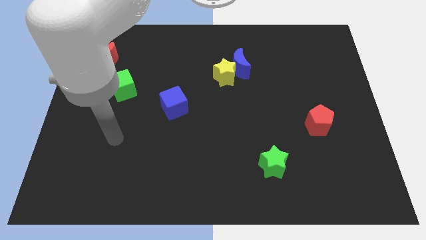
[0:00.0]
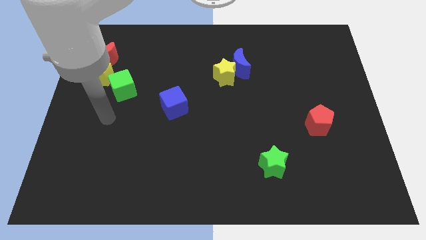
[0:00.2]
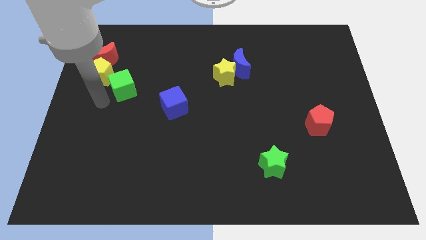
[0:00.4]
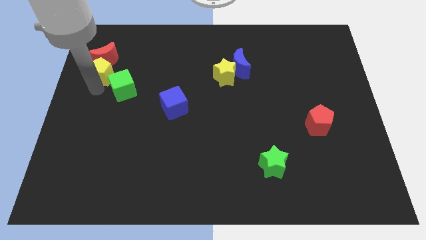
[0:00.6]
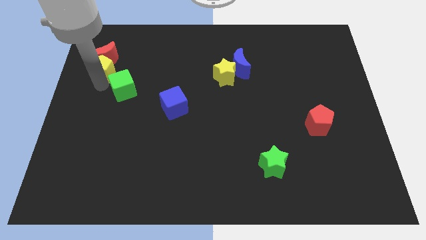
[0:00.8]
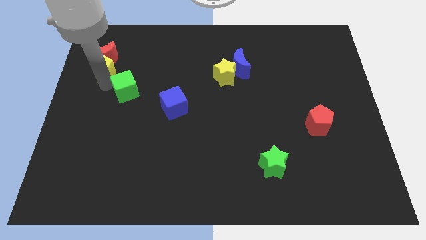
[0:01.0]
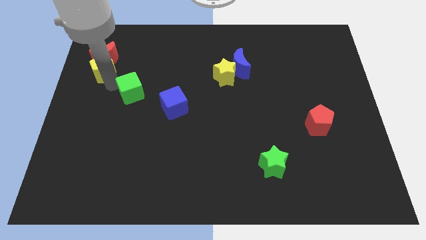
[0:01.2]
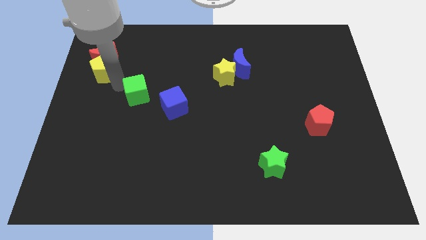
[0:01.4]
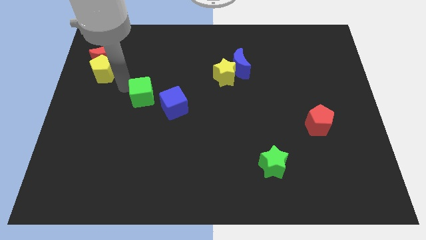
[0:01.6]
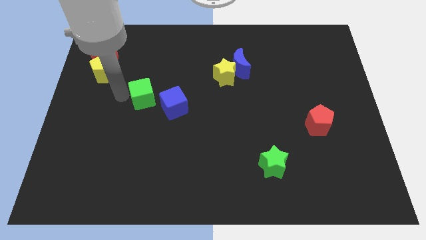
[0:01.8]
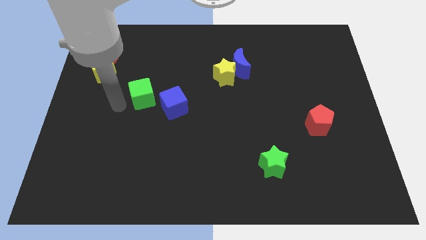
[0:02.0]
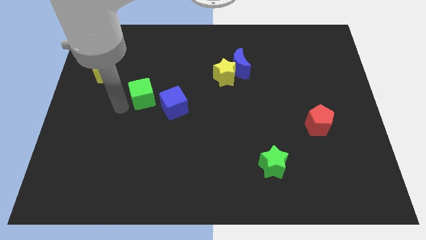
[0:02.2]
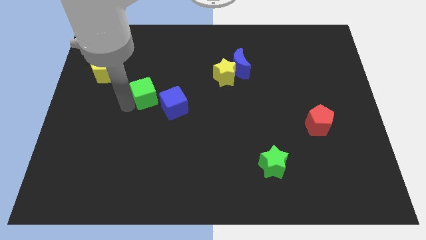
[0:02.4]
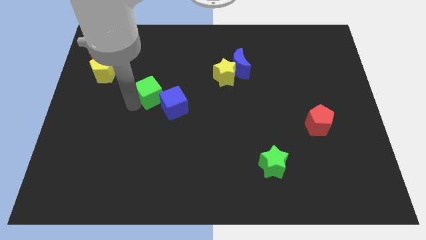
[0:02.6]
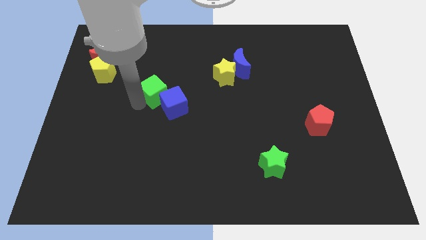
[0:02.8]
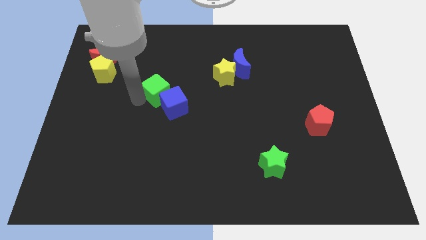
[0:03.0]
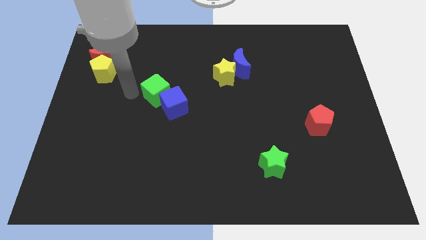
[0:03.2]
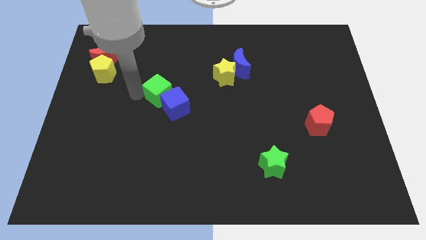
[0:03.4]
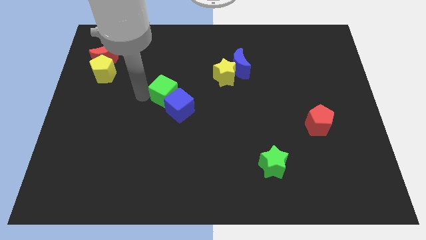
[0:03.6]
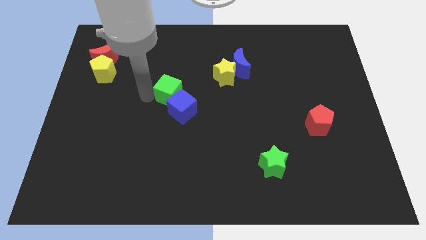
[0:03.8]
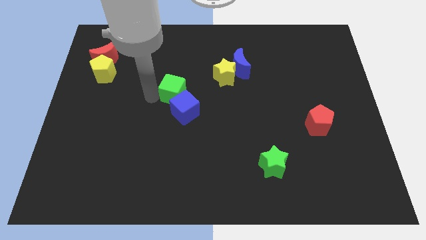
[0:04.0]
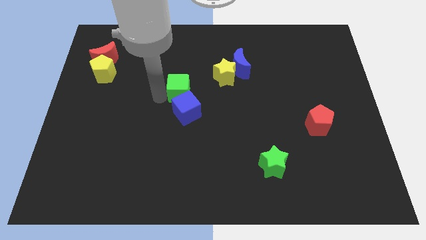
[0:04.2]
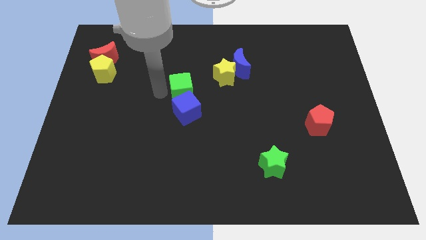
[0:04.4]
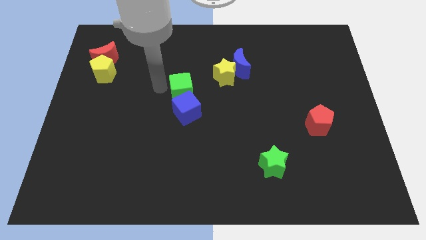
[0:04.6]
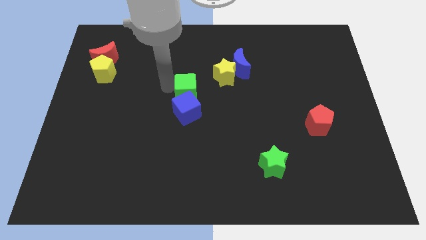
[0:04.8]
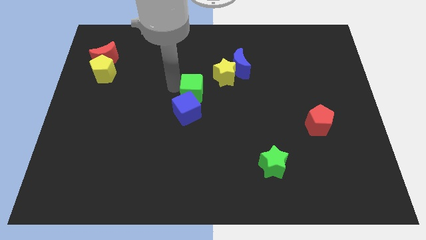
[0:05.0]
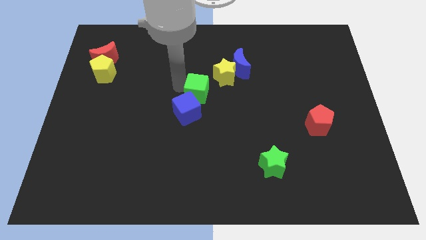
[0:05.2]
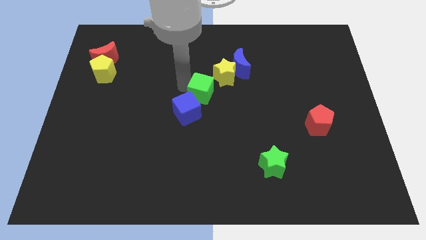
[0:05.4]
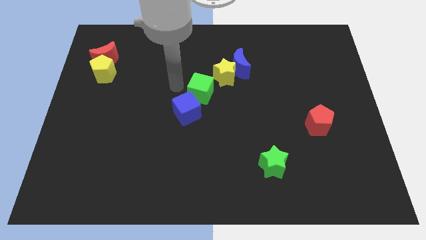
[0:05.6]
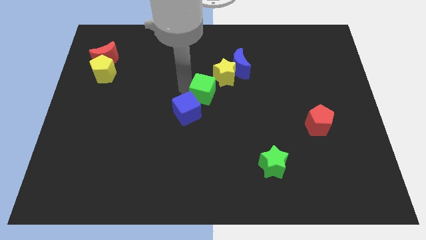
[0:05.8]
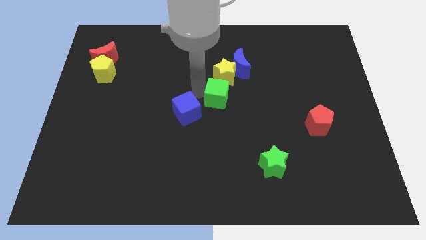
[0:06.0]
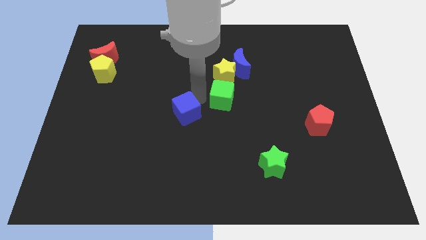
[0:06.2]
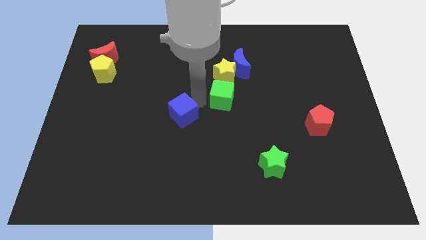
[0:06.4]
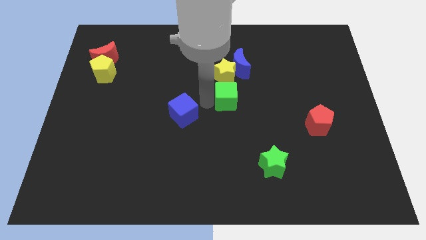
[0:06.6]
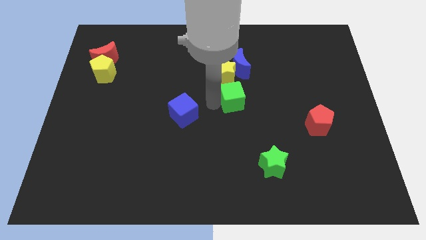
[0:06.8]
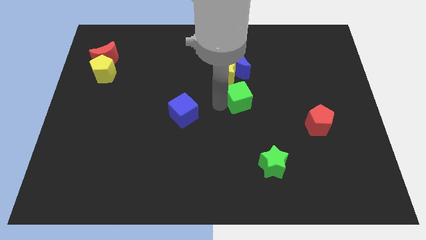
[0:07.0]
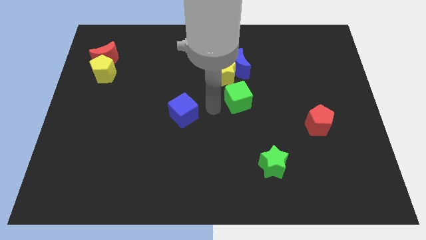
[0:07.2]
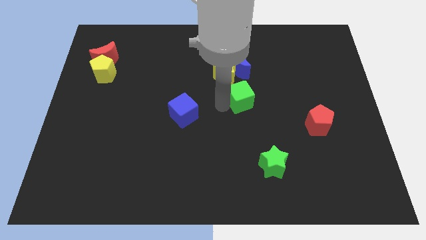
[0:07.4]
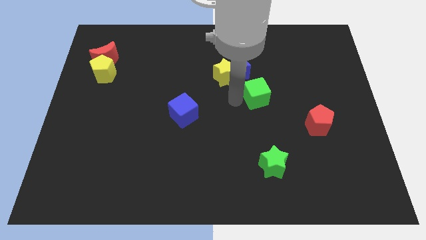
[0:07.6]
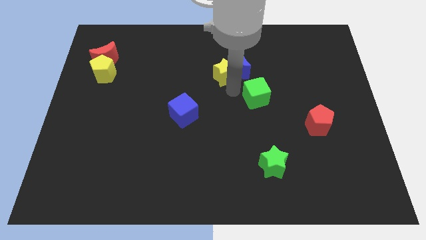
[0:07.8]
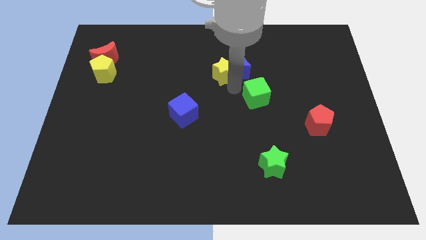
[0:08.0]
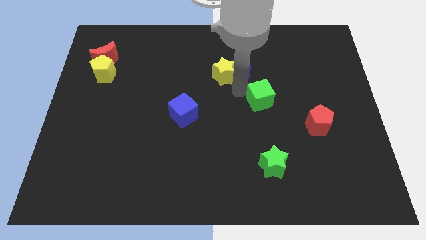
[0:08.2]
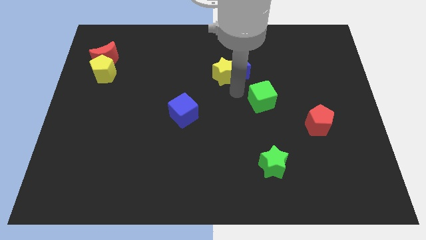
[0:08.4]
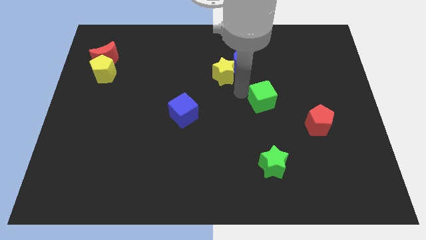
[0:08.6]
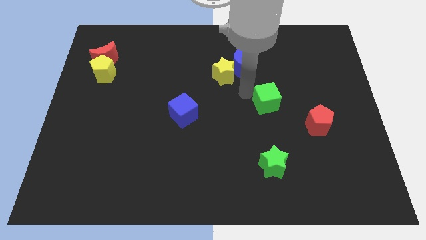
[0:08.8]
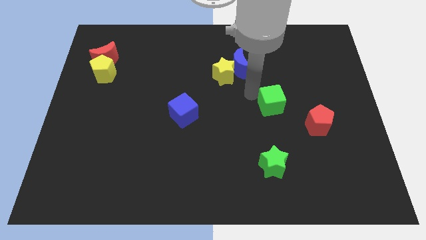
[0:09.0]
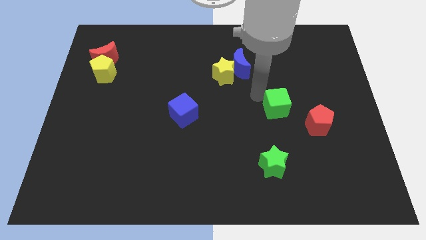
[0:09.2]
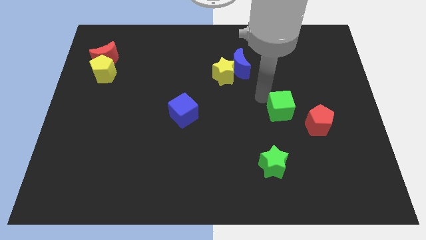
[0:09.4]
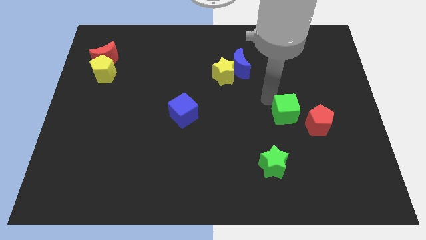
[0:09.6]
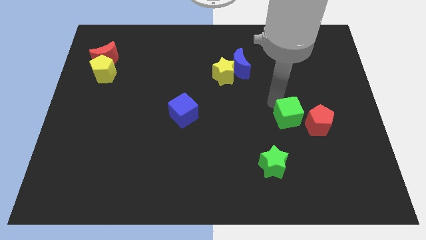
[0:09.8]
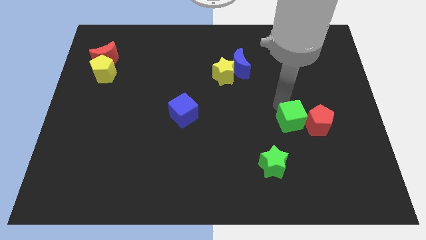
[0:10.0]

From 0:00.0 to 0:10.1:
slide the green cube towards the red pentagon

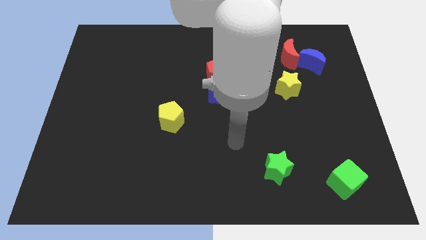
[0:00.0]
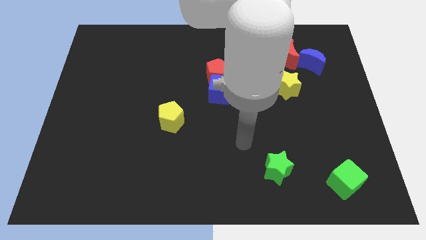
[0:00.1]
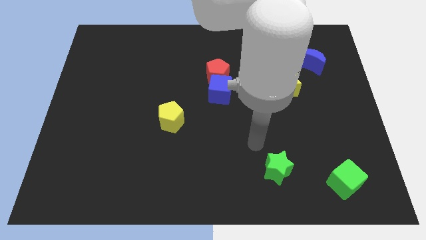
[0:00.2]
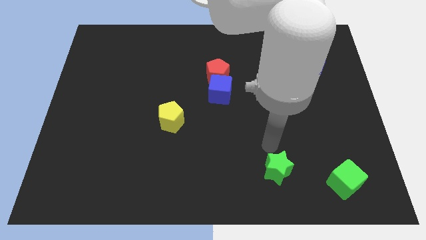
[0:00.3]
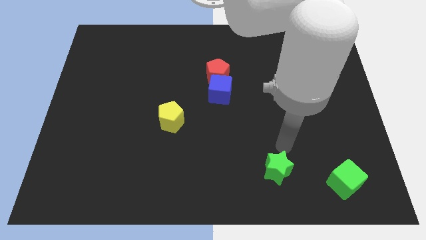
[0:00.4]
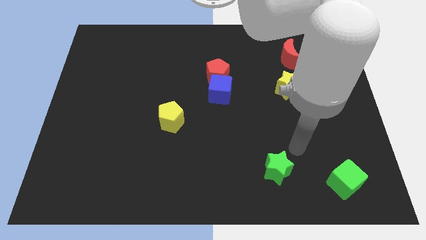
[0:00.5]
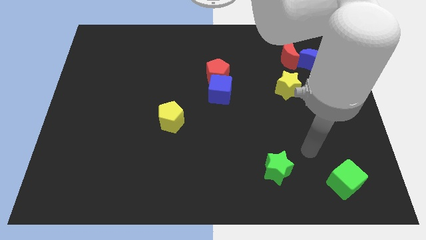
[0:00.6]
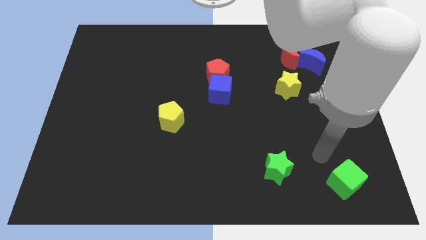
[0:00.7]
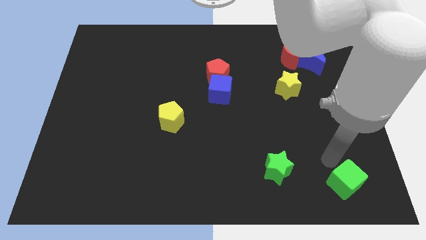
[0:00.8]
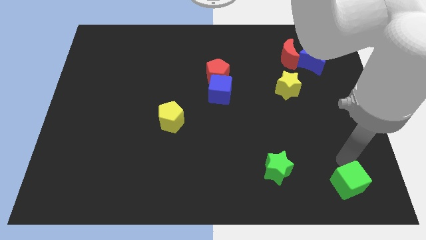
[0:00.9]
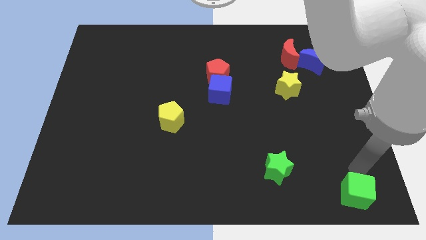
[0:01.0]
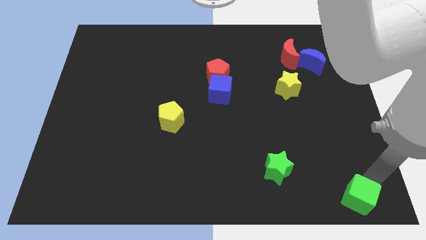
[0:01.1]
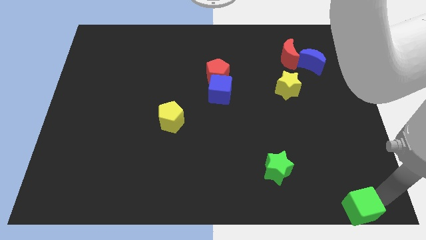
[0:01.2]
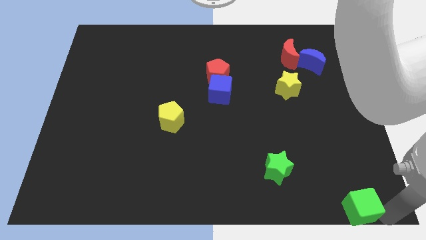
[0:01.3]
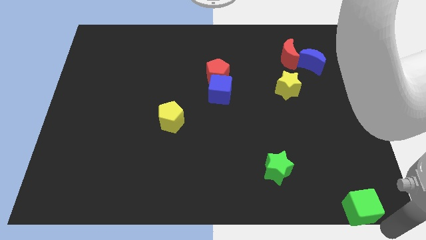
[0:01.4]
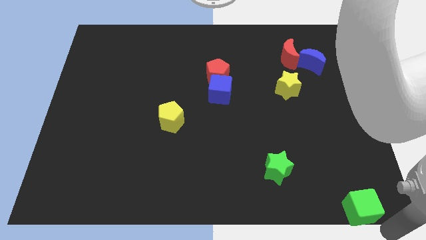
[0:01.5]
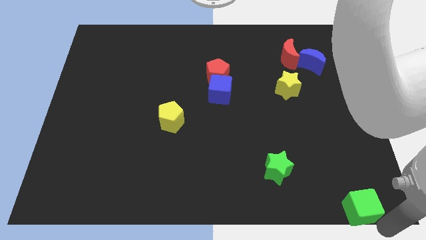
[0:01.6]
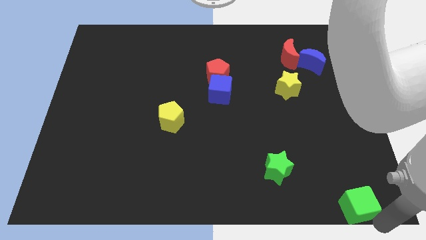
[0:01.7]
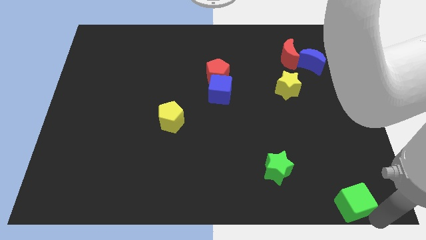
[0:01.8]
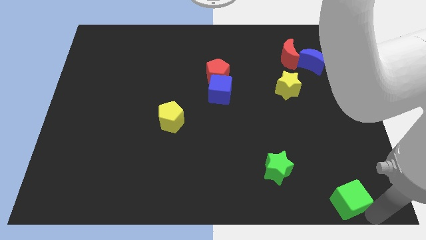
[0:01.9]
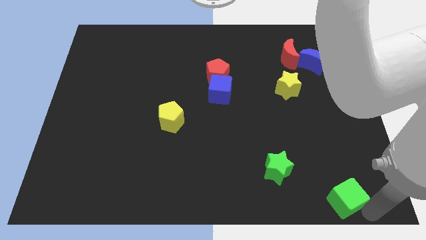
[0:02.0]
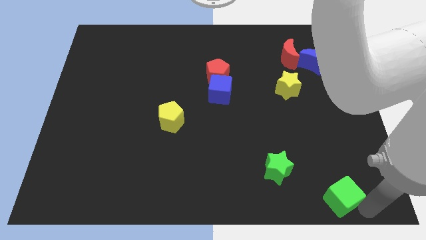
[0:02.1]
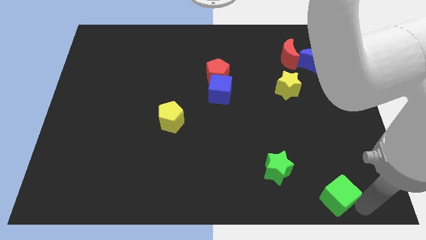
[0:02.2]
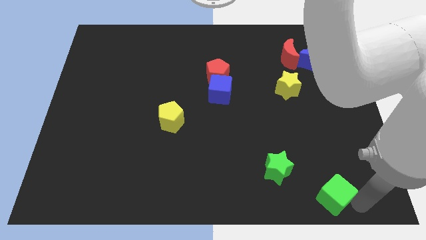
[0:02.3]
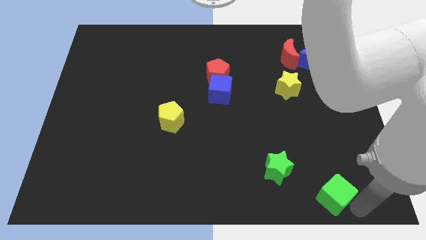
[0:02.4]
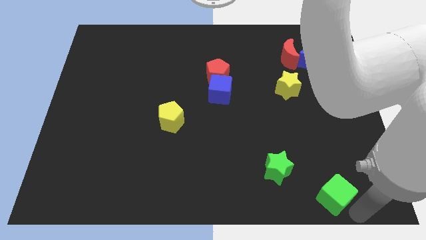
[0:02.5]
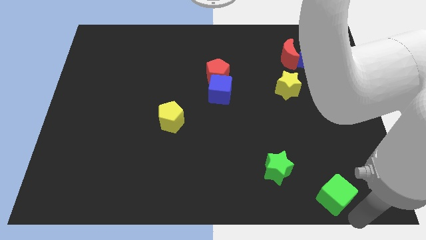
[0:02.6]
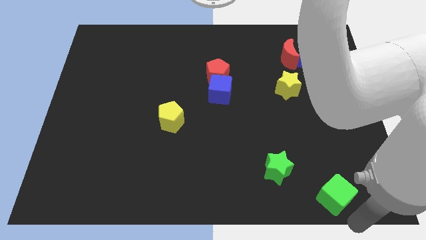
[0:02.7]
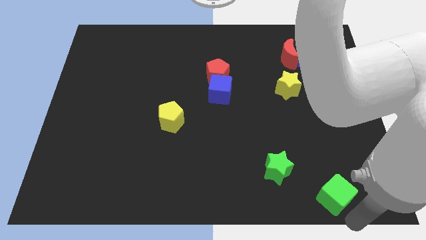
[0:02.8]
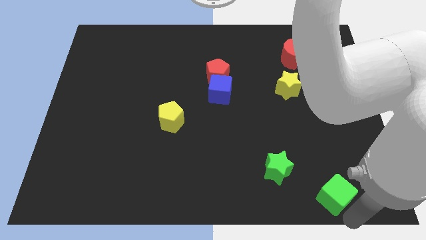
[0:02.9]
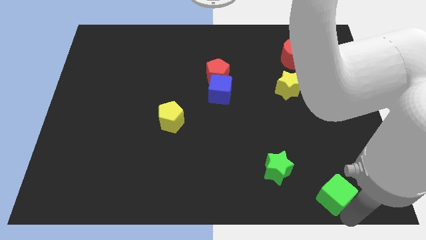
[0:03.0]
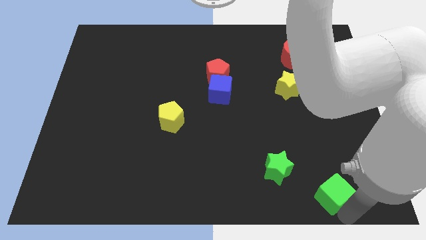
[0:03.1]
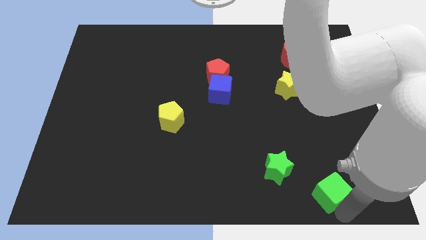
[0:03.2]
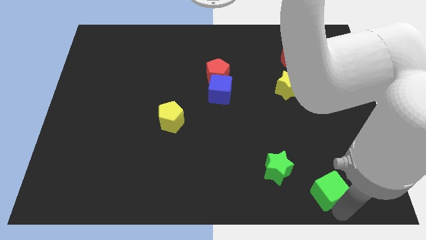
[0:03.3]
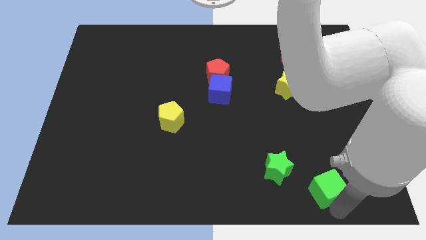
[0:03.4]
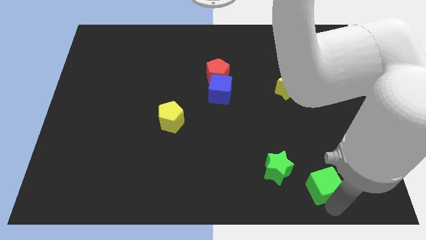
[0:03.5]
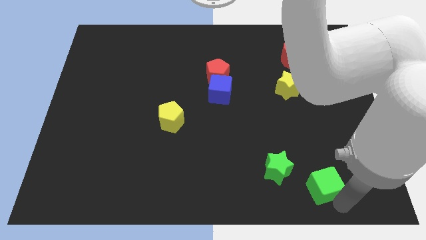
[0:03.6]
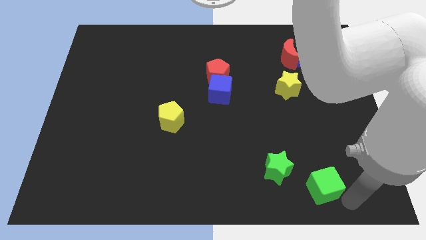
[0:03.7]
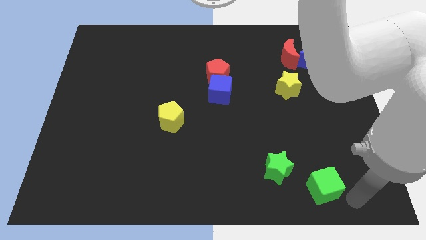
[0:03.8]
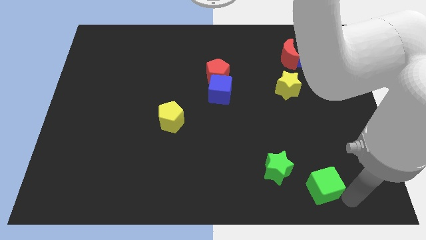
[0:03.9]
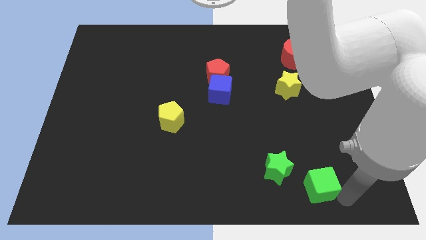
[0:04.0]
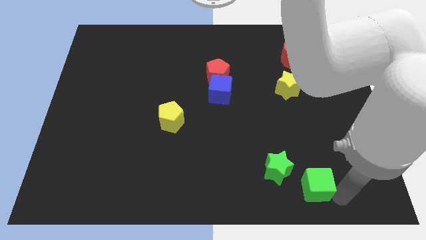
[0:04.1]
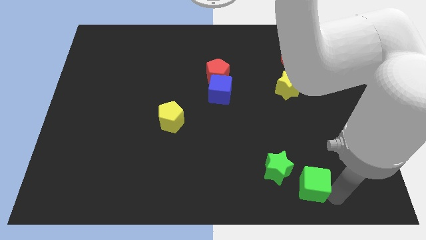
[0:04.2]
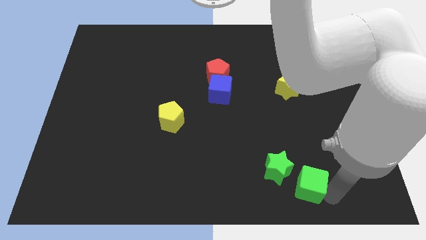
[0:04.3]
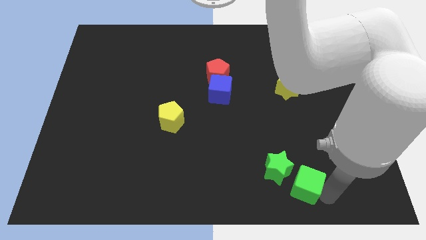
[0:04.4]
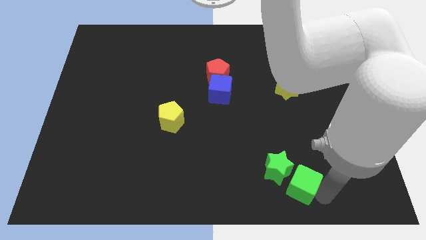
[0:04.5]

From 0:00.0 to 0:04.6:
slide the green cube to the green star
